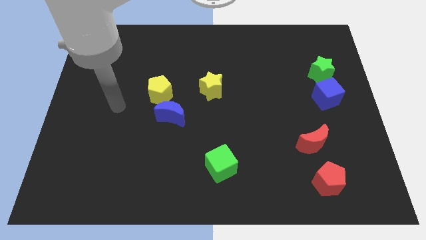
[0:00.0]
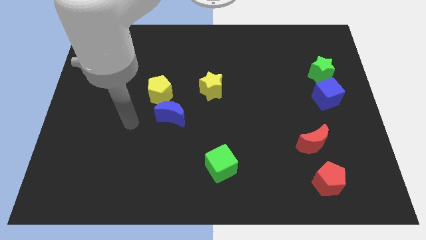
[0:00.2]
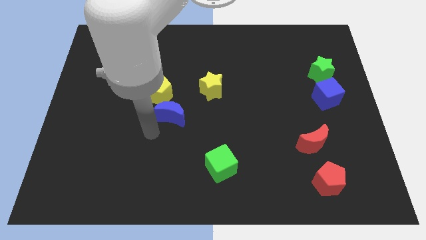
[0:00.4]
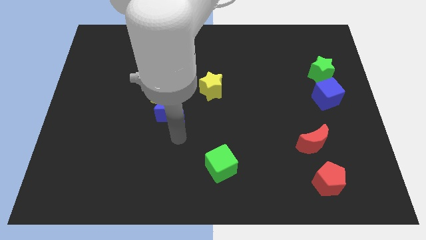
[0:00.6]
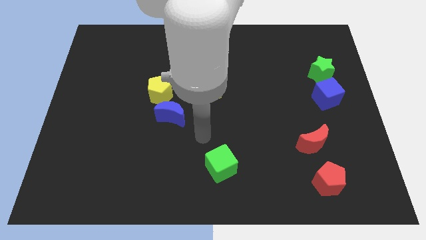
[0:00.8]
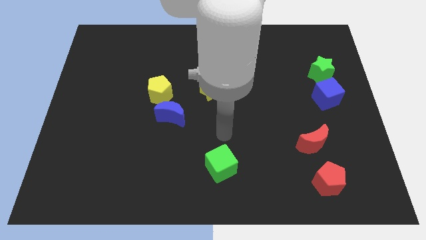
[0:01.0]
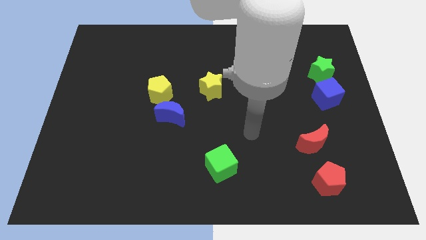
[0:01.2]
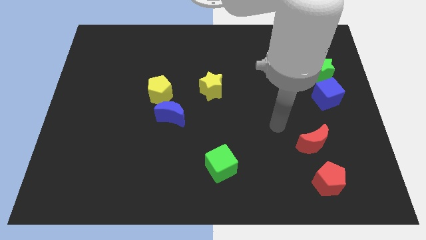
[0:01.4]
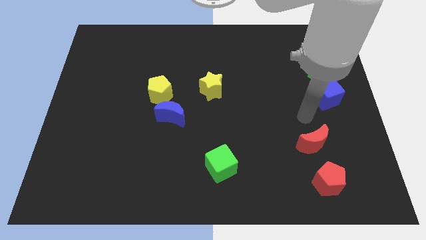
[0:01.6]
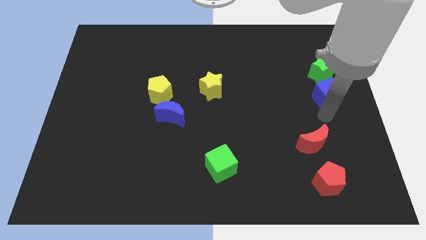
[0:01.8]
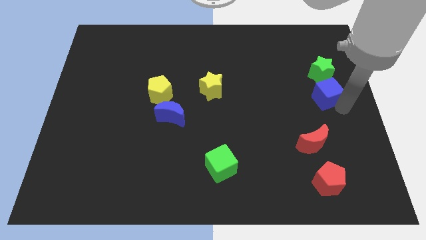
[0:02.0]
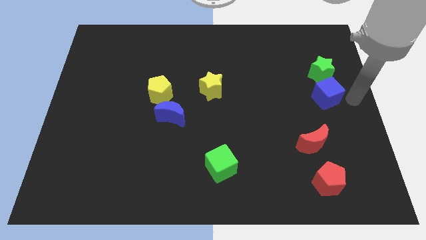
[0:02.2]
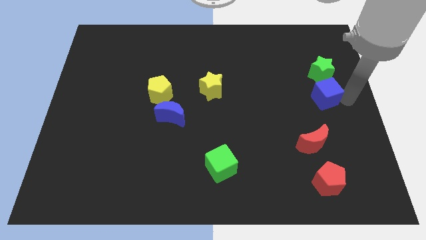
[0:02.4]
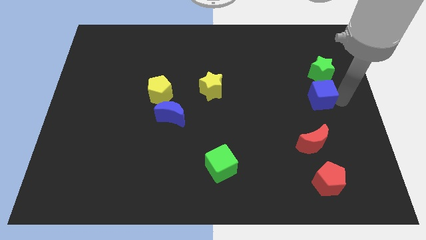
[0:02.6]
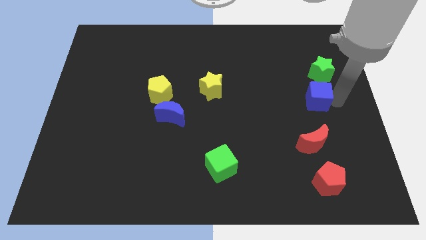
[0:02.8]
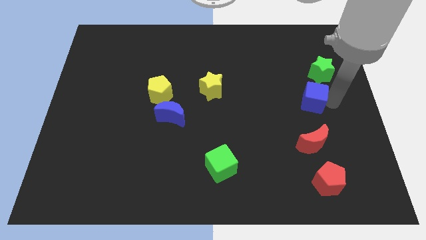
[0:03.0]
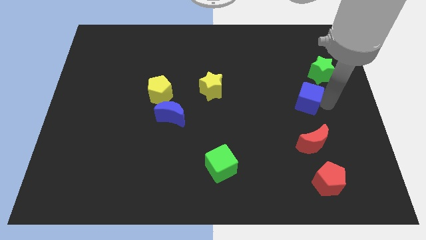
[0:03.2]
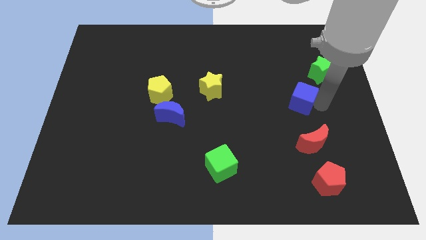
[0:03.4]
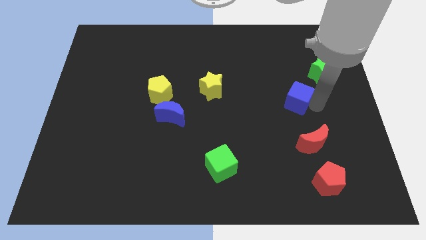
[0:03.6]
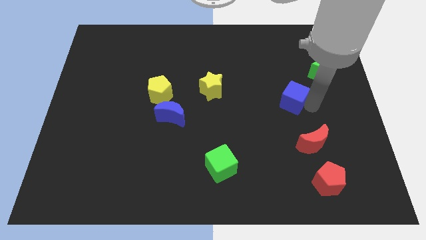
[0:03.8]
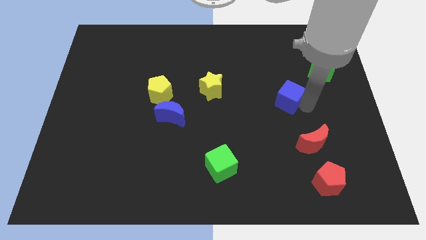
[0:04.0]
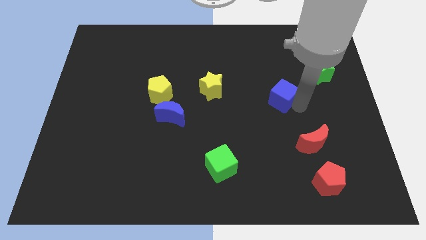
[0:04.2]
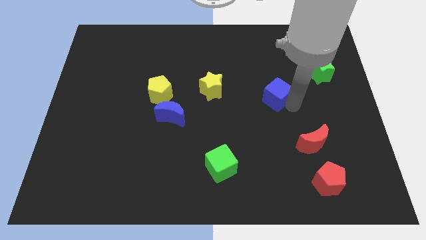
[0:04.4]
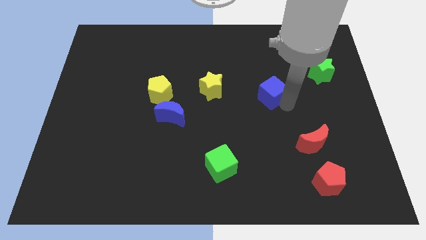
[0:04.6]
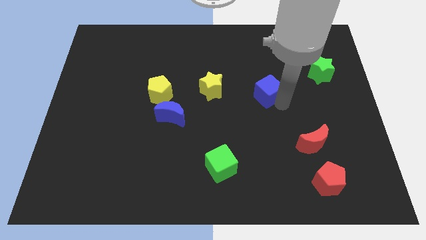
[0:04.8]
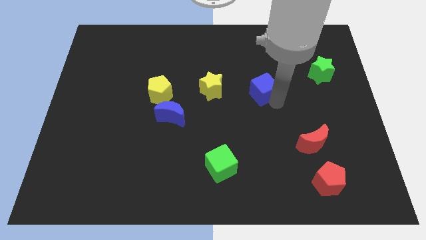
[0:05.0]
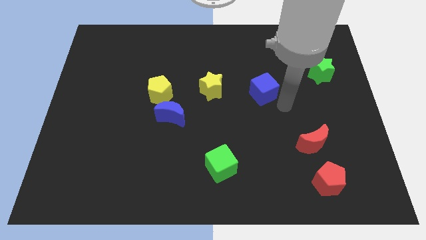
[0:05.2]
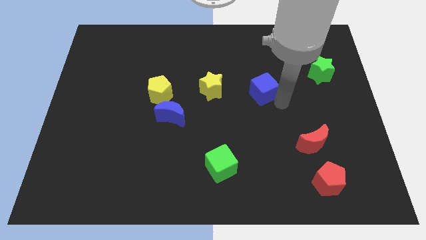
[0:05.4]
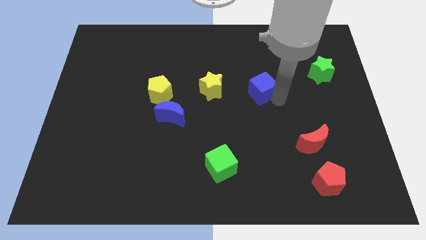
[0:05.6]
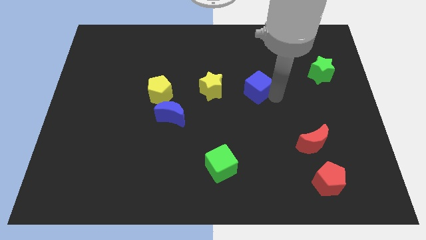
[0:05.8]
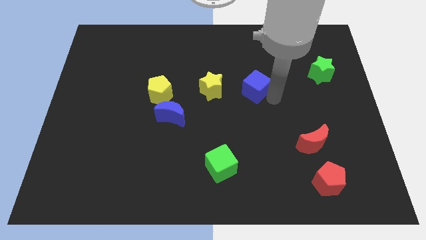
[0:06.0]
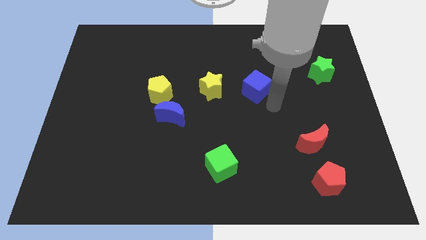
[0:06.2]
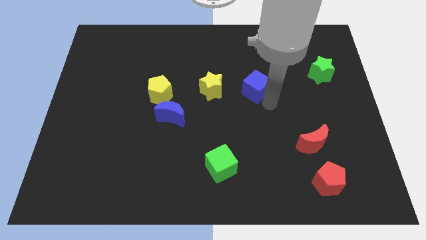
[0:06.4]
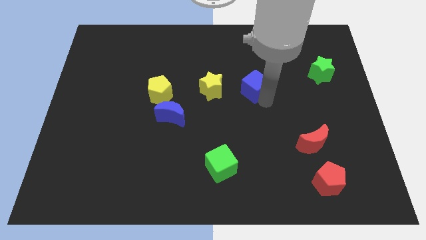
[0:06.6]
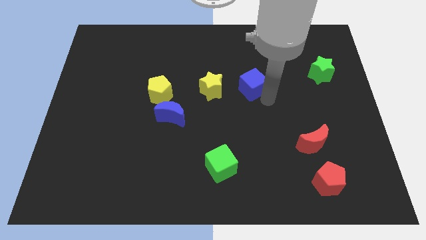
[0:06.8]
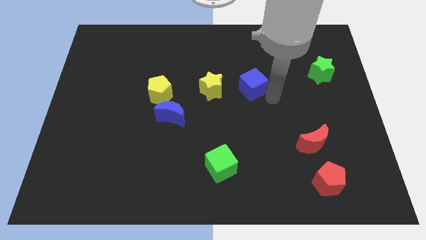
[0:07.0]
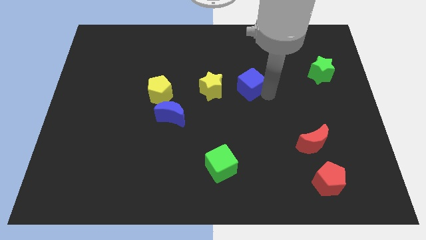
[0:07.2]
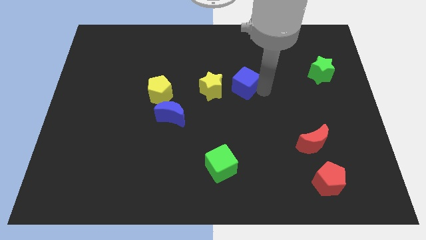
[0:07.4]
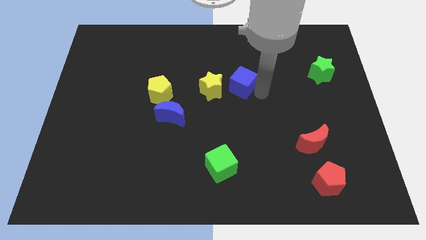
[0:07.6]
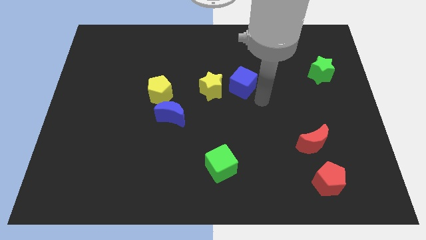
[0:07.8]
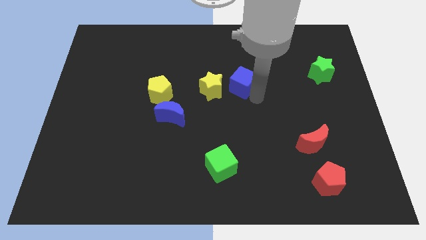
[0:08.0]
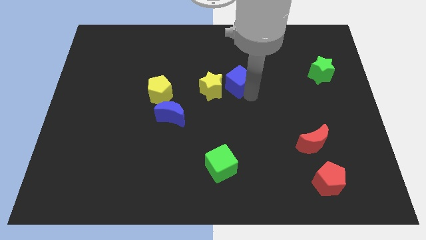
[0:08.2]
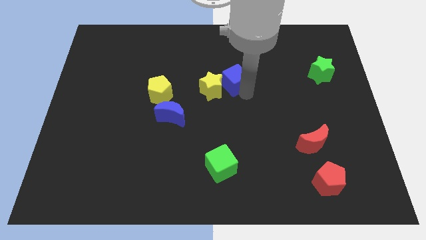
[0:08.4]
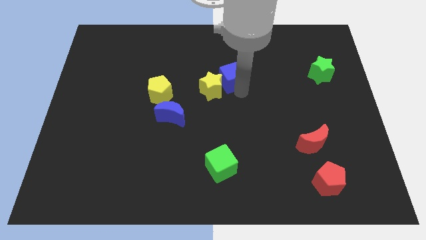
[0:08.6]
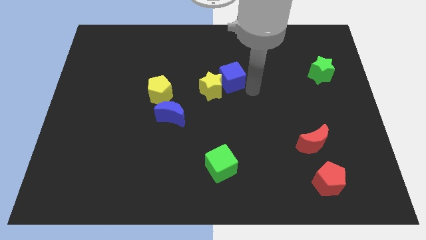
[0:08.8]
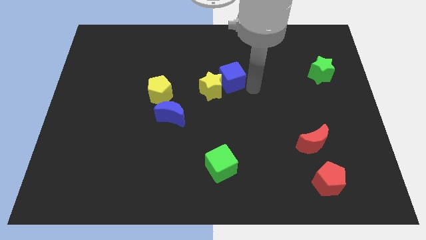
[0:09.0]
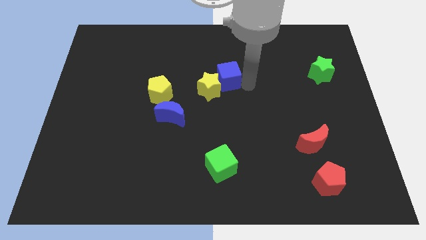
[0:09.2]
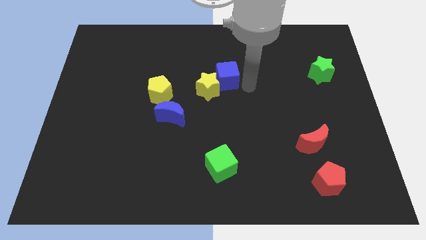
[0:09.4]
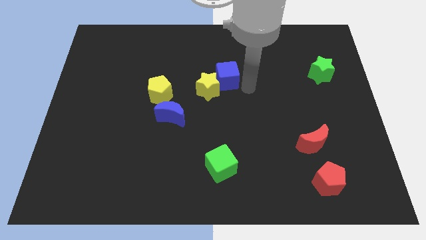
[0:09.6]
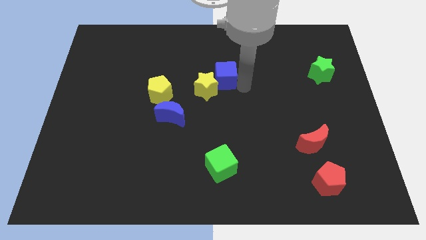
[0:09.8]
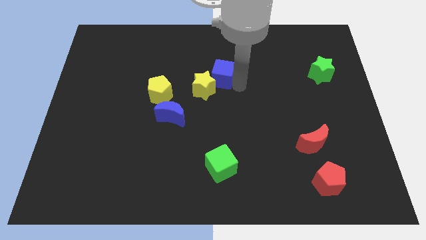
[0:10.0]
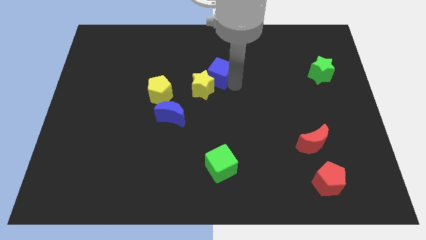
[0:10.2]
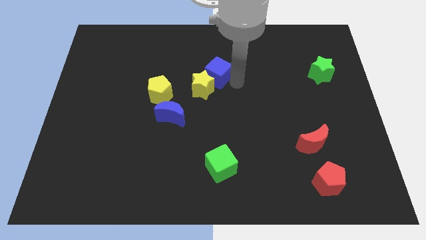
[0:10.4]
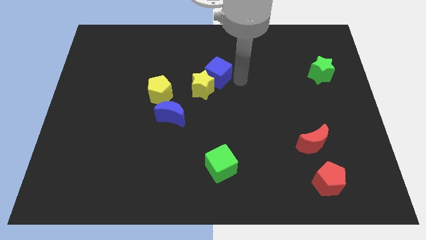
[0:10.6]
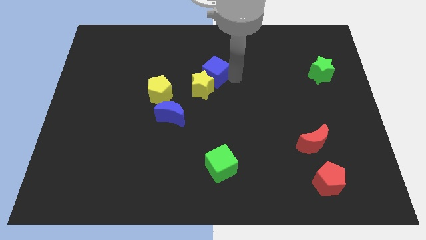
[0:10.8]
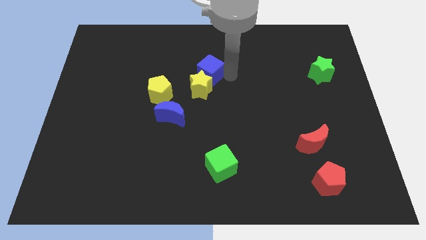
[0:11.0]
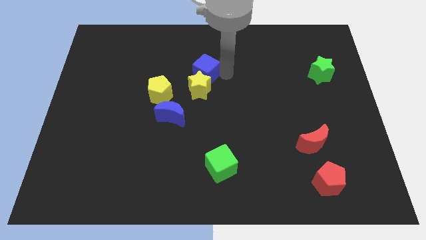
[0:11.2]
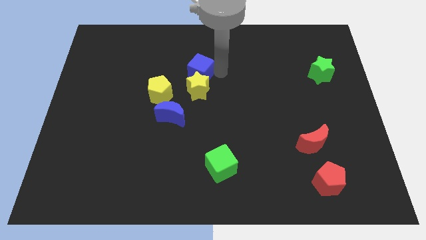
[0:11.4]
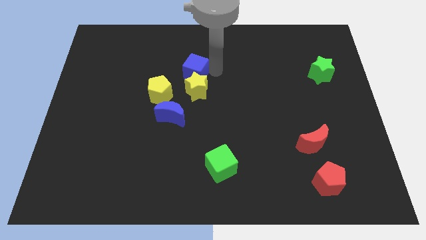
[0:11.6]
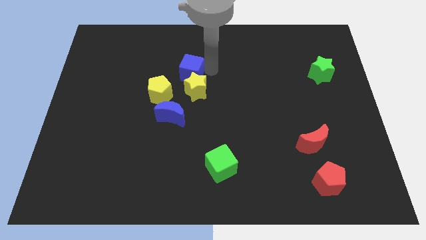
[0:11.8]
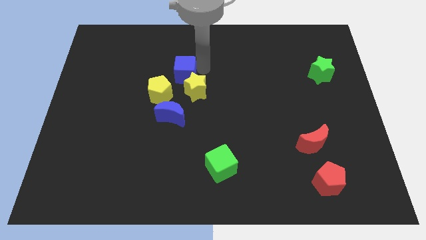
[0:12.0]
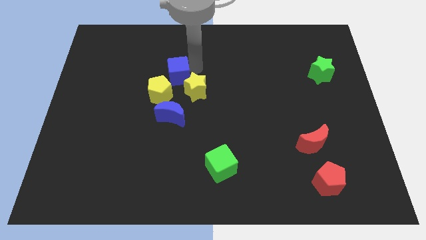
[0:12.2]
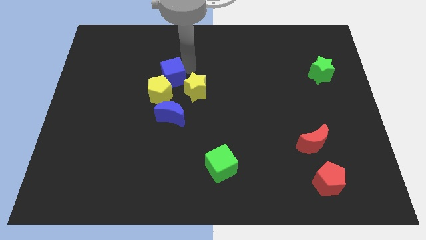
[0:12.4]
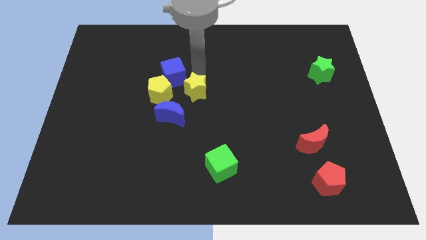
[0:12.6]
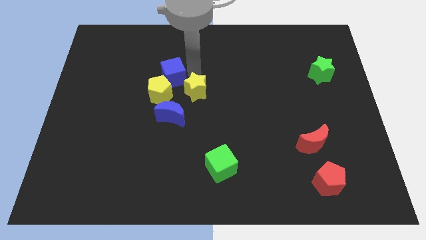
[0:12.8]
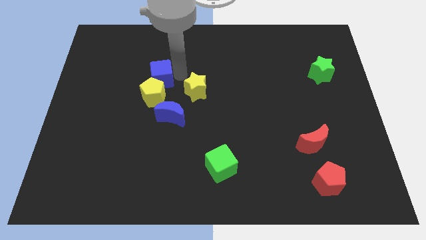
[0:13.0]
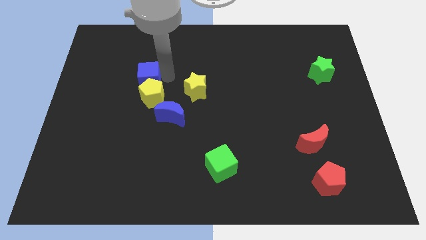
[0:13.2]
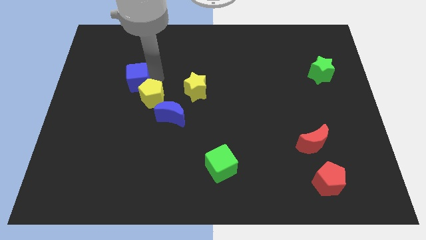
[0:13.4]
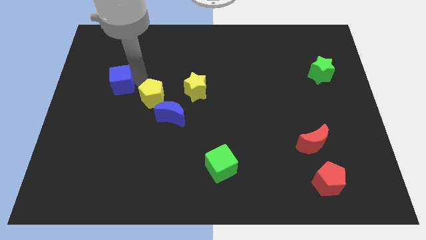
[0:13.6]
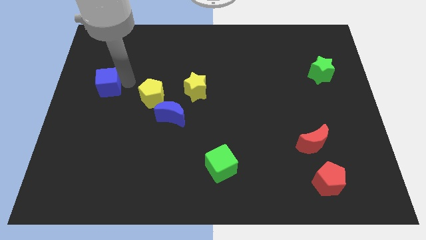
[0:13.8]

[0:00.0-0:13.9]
put the blue cube to the center left
